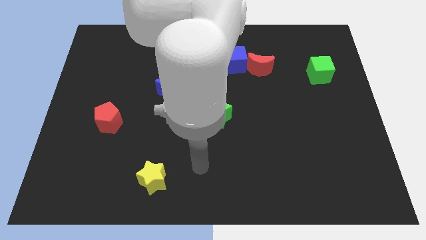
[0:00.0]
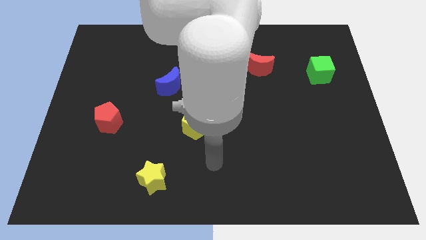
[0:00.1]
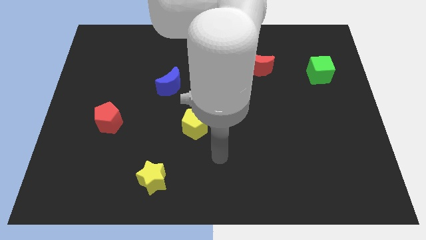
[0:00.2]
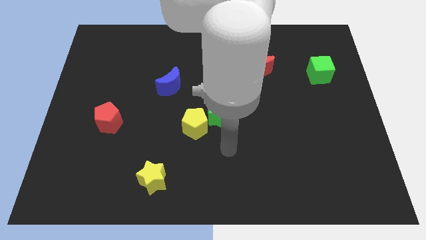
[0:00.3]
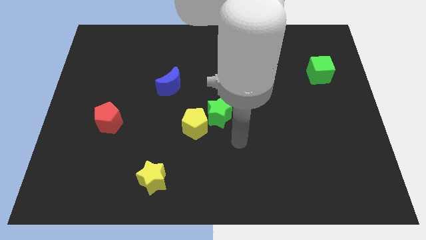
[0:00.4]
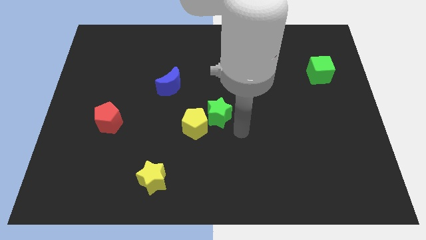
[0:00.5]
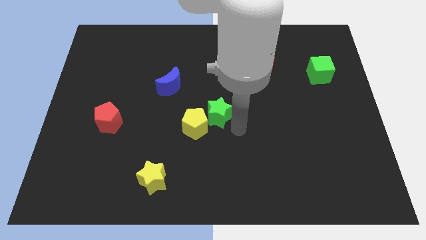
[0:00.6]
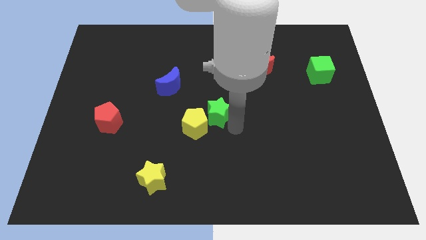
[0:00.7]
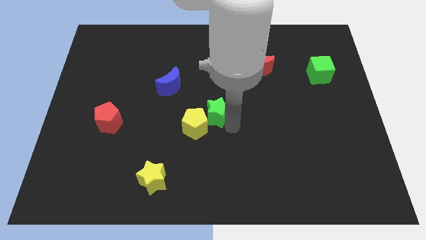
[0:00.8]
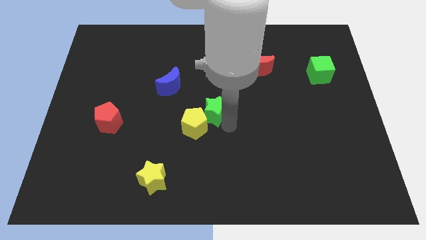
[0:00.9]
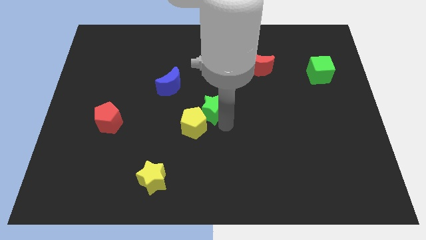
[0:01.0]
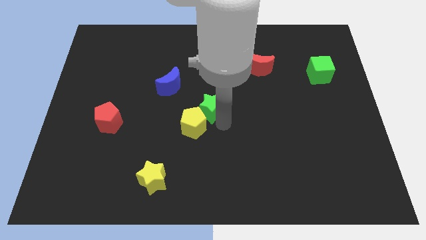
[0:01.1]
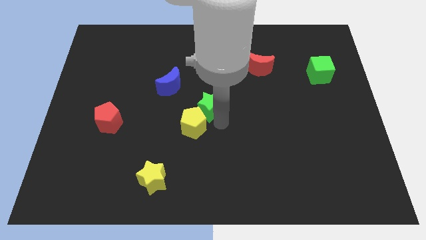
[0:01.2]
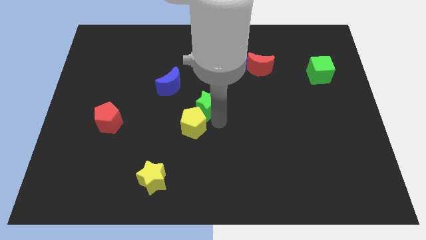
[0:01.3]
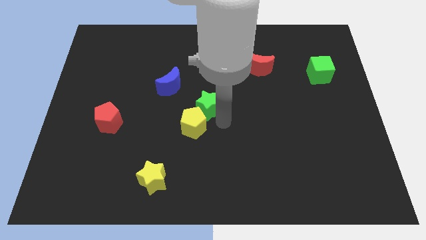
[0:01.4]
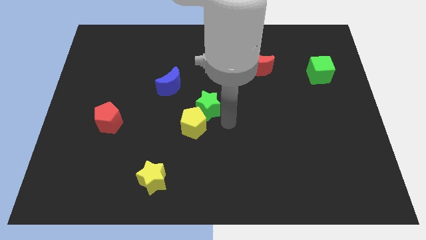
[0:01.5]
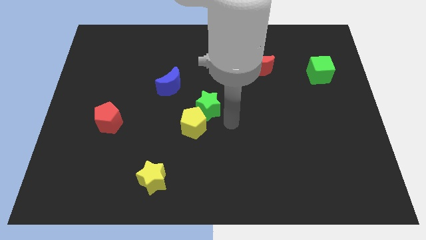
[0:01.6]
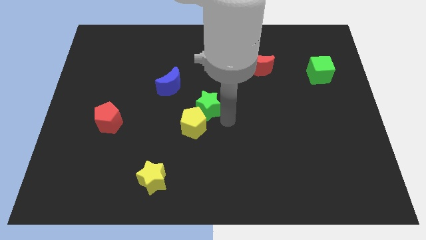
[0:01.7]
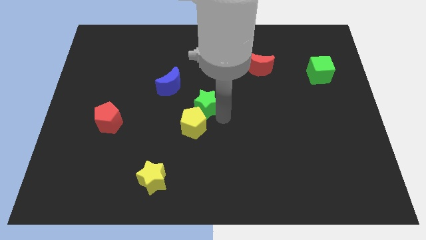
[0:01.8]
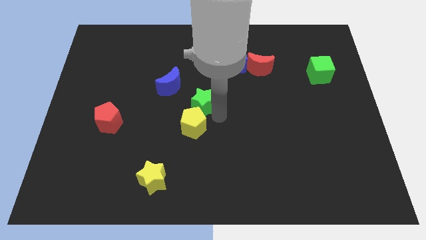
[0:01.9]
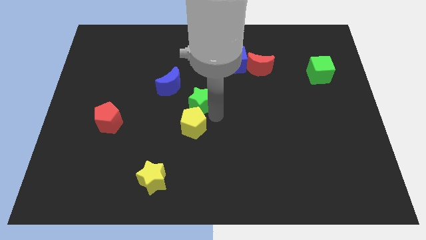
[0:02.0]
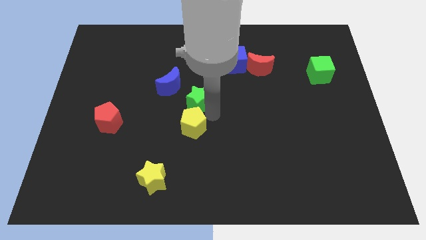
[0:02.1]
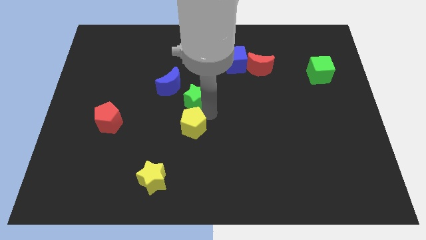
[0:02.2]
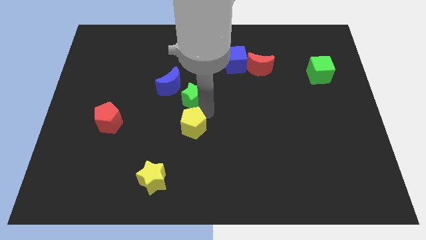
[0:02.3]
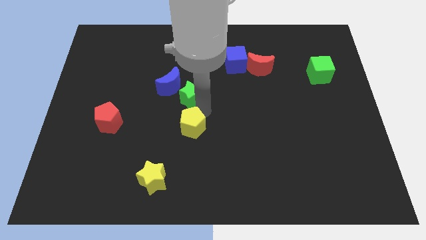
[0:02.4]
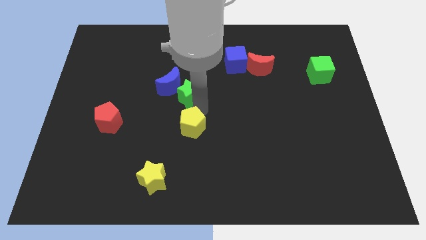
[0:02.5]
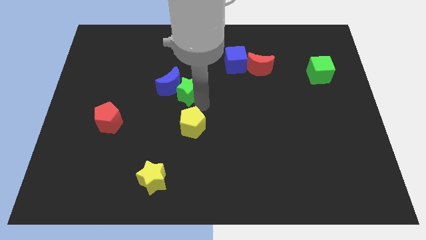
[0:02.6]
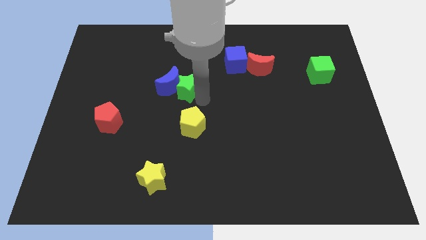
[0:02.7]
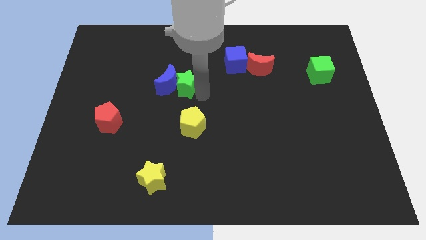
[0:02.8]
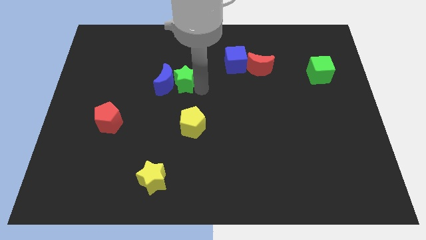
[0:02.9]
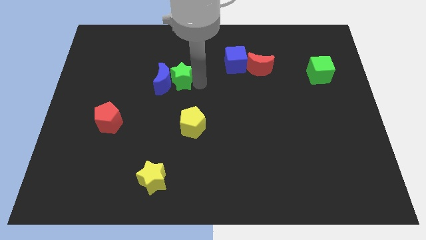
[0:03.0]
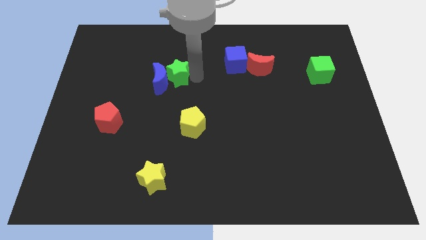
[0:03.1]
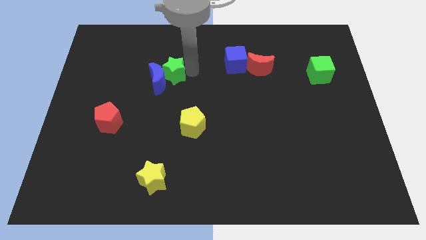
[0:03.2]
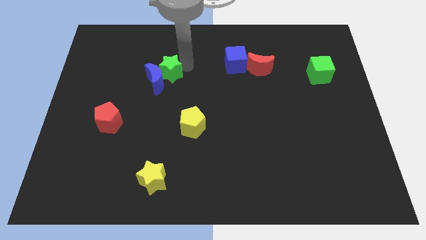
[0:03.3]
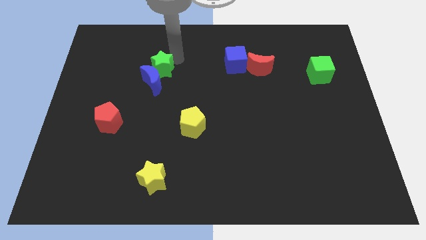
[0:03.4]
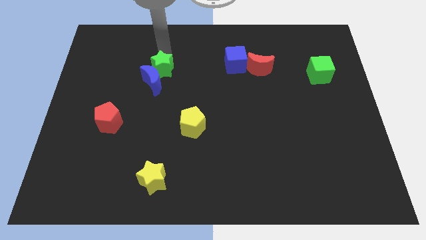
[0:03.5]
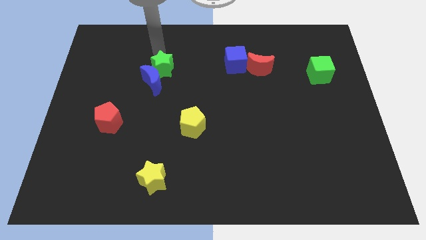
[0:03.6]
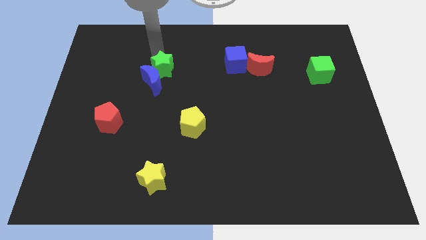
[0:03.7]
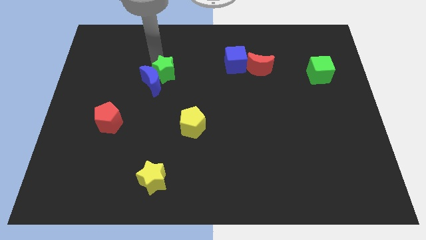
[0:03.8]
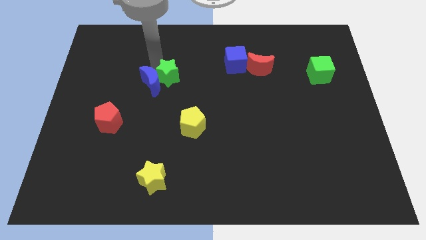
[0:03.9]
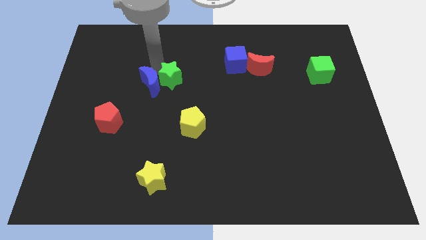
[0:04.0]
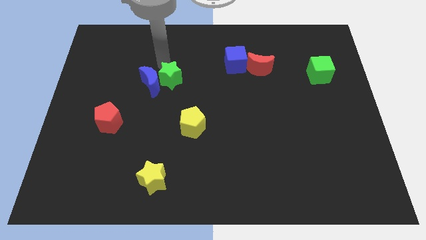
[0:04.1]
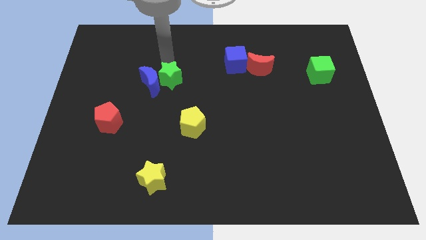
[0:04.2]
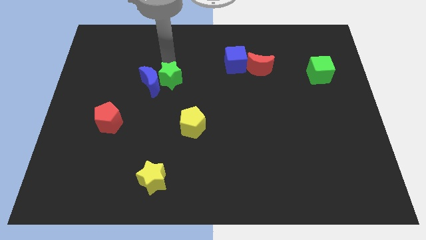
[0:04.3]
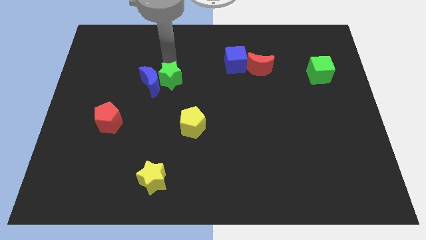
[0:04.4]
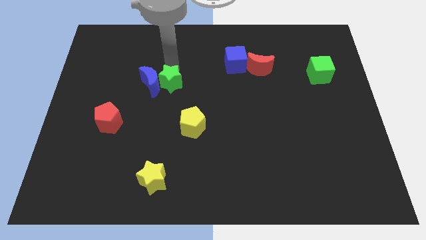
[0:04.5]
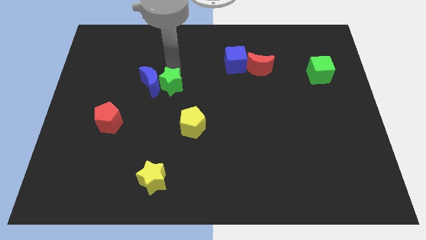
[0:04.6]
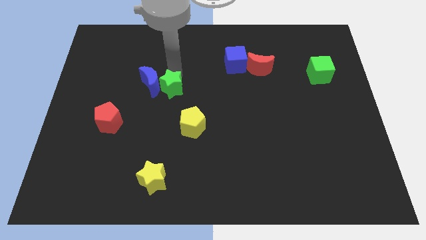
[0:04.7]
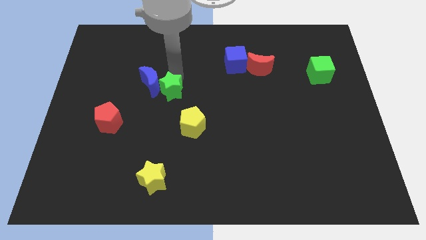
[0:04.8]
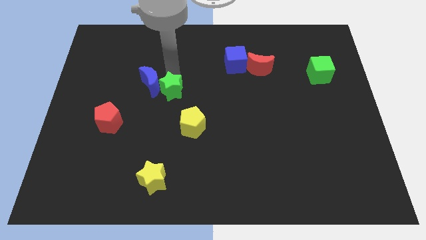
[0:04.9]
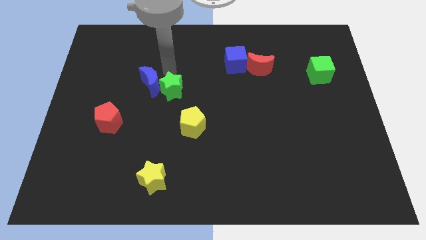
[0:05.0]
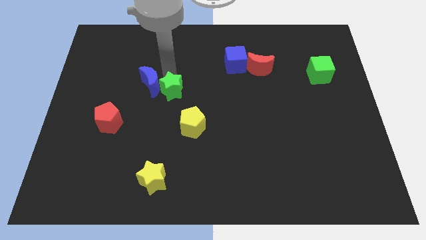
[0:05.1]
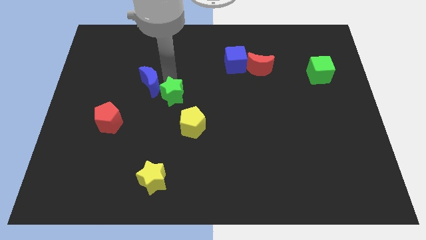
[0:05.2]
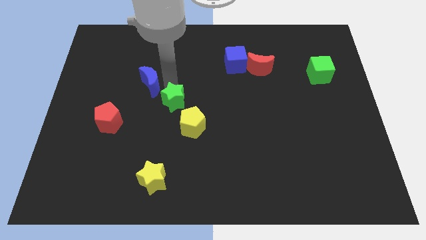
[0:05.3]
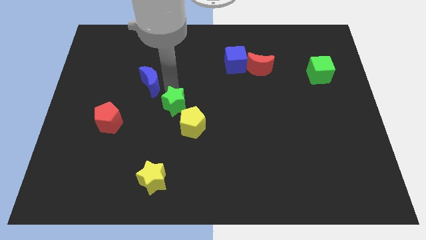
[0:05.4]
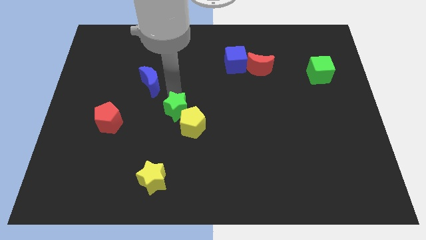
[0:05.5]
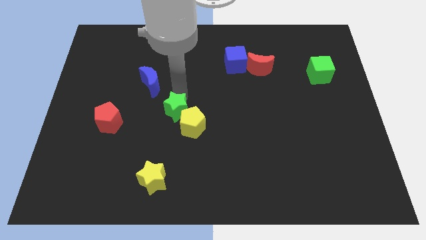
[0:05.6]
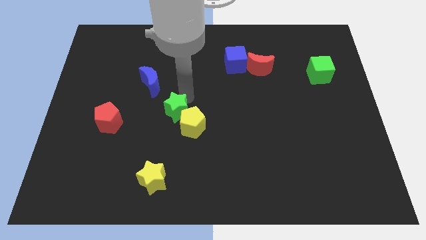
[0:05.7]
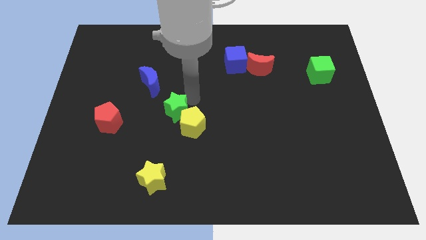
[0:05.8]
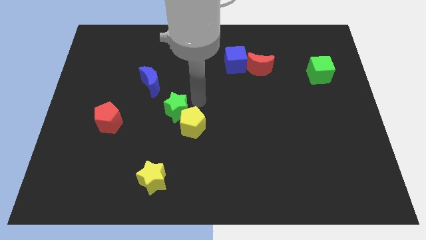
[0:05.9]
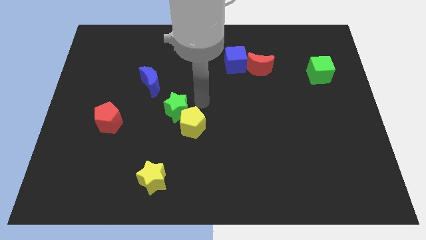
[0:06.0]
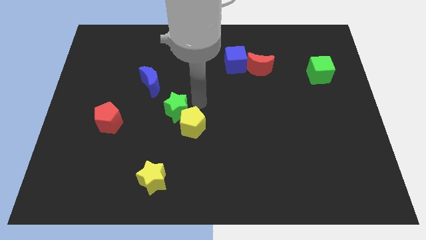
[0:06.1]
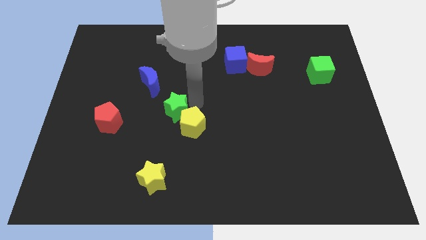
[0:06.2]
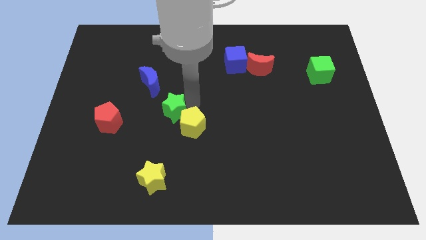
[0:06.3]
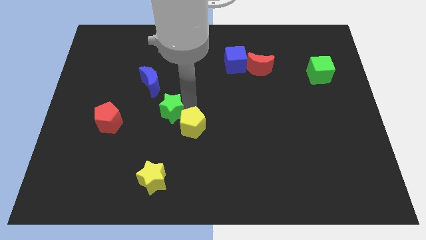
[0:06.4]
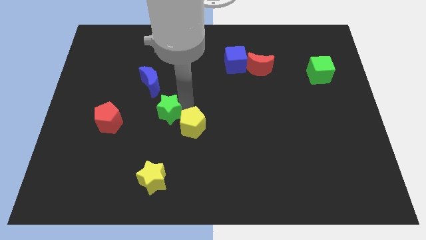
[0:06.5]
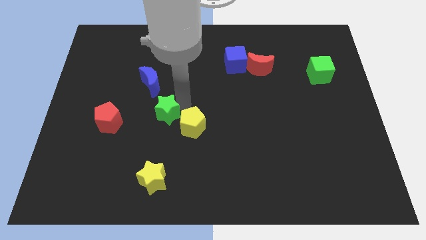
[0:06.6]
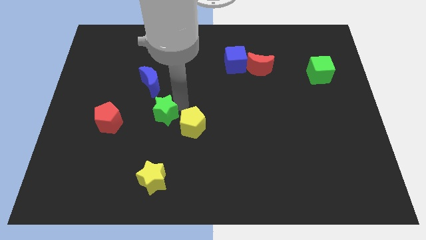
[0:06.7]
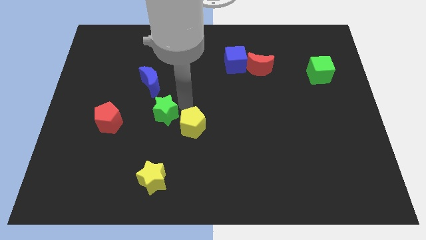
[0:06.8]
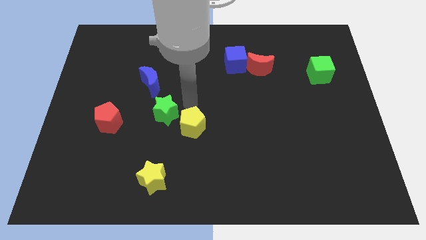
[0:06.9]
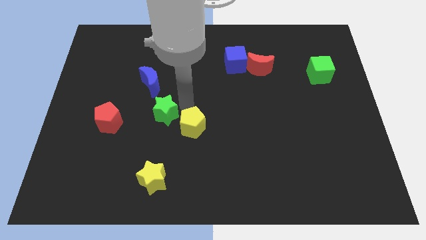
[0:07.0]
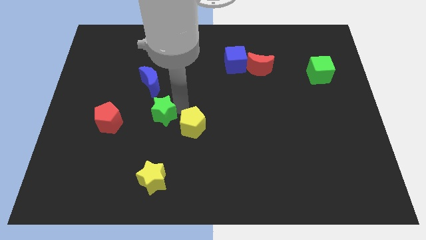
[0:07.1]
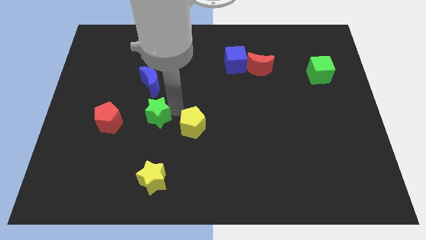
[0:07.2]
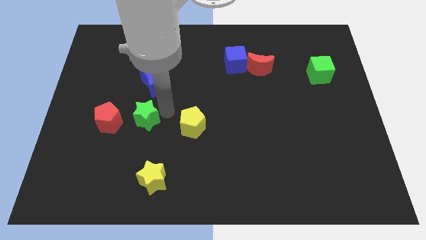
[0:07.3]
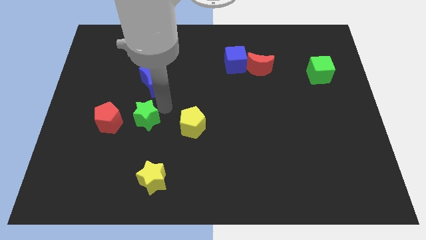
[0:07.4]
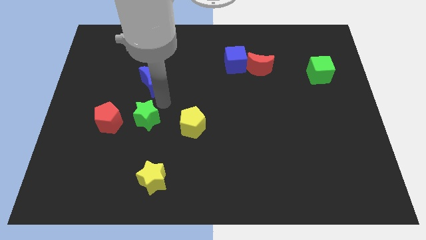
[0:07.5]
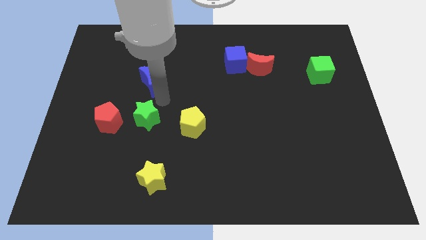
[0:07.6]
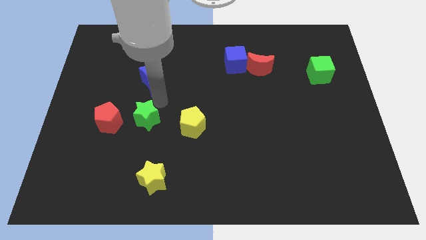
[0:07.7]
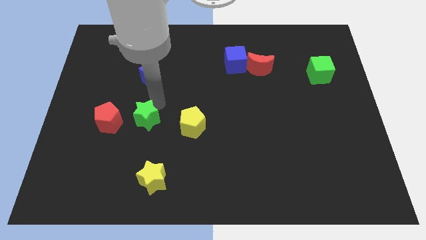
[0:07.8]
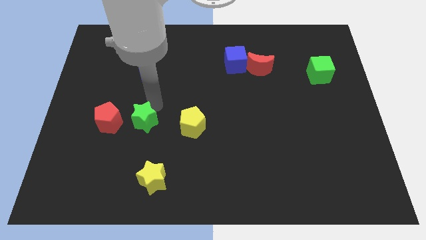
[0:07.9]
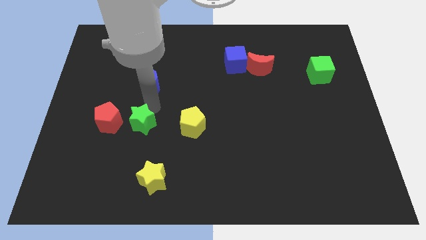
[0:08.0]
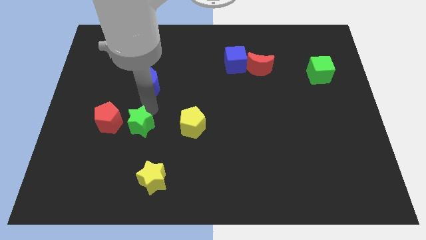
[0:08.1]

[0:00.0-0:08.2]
slide the green star diagonally down and to the right of the red pentagon
